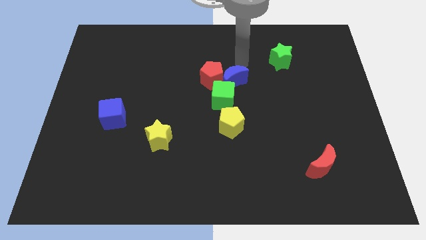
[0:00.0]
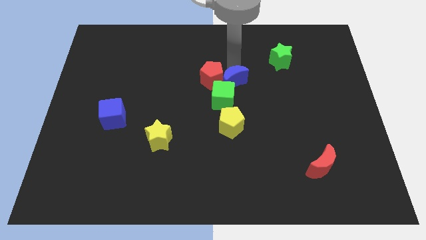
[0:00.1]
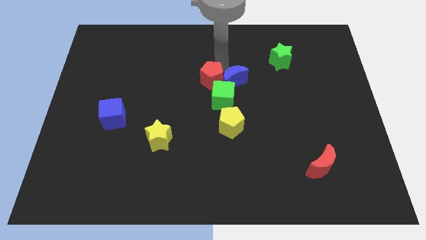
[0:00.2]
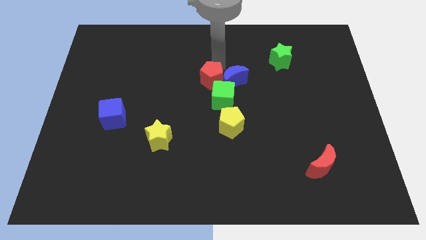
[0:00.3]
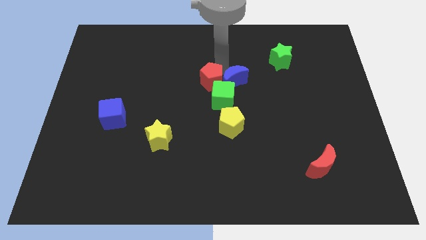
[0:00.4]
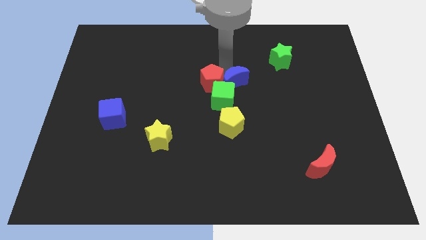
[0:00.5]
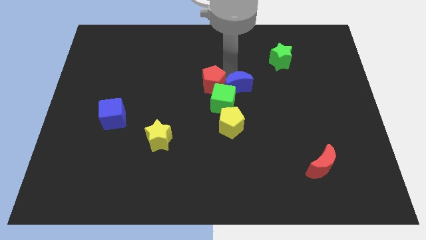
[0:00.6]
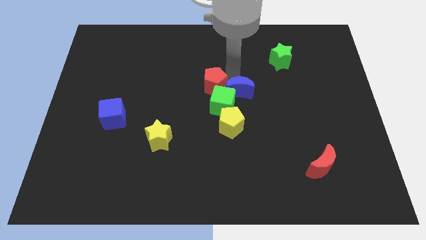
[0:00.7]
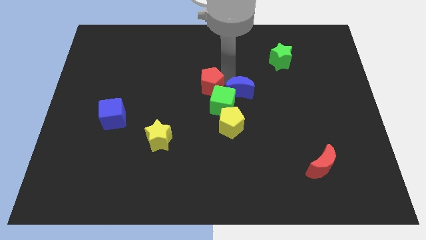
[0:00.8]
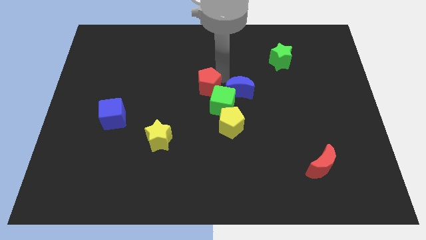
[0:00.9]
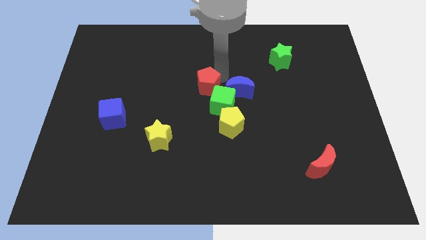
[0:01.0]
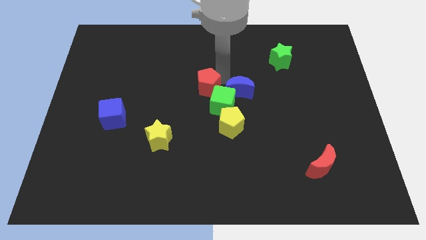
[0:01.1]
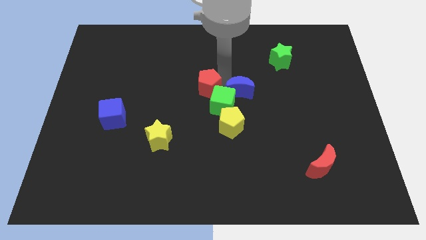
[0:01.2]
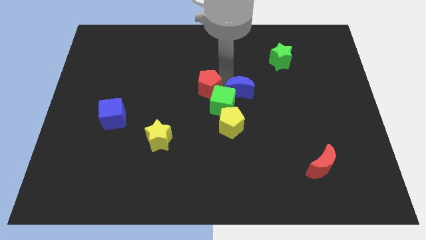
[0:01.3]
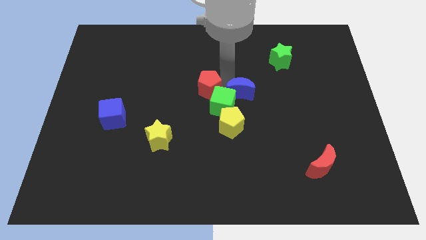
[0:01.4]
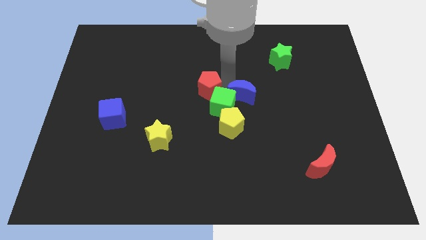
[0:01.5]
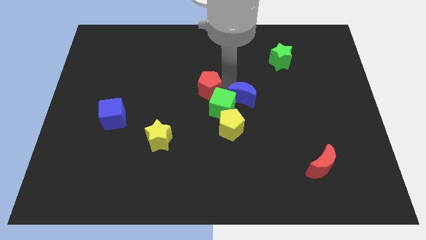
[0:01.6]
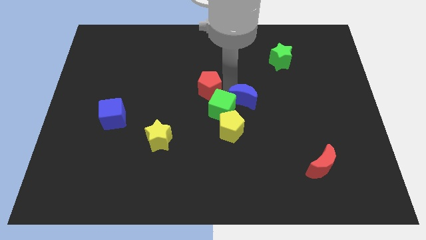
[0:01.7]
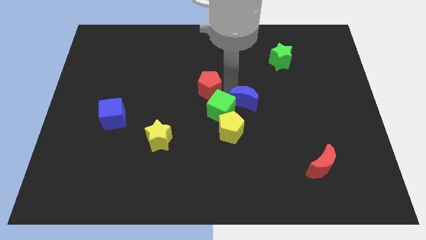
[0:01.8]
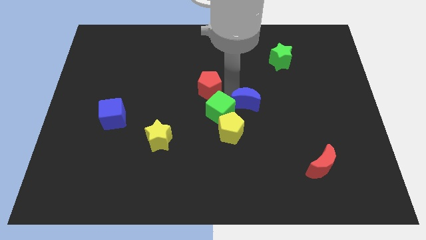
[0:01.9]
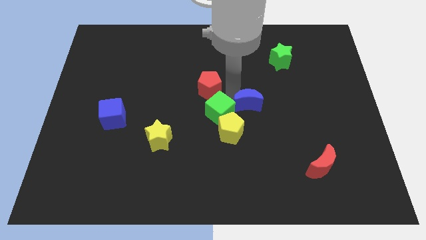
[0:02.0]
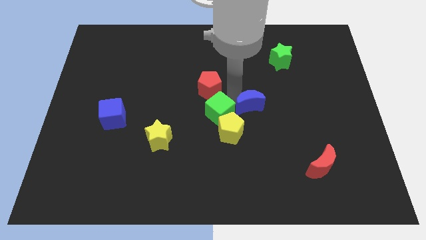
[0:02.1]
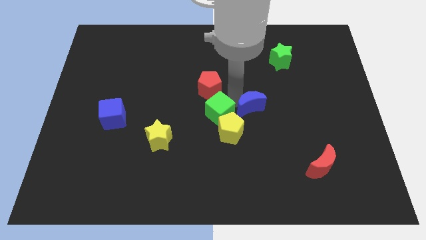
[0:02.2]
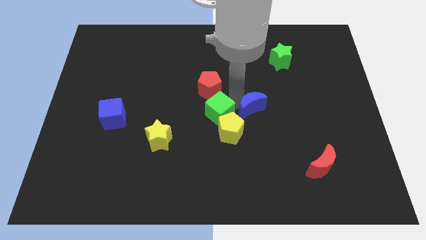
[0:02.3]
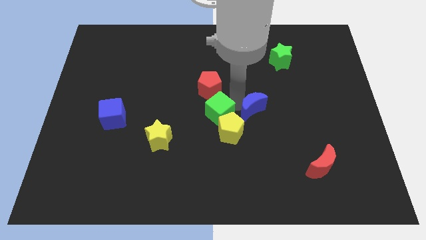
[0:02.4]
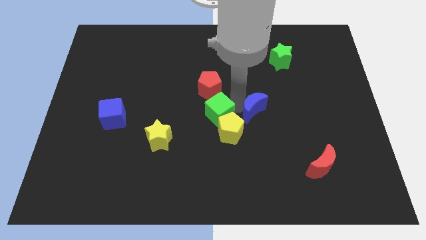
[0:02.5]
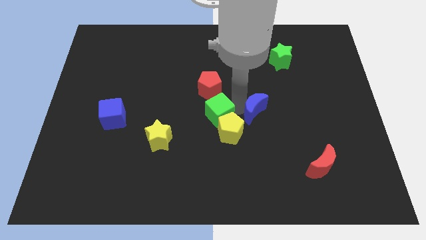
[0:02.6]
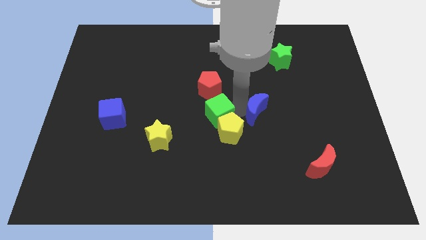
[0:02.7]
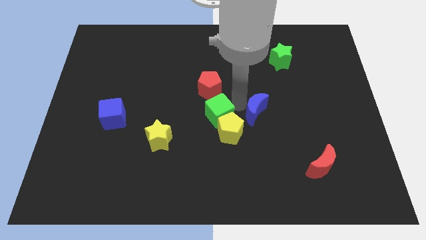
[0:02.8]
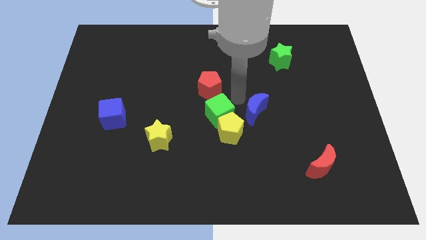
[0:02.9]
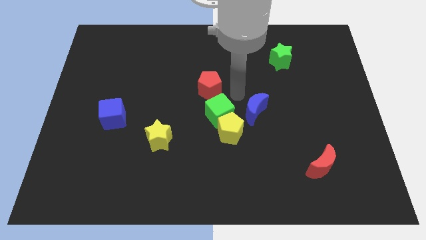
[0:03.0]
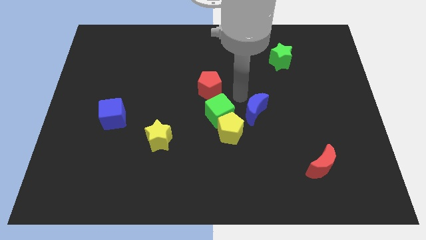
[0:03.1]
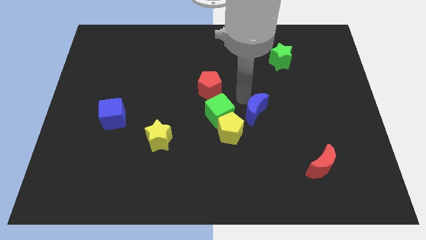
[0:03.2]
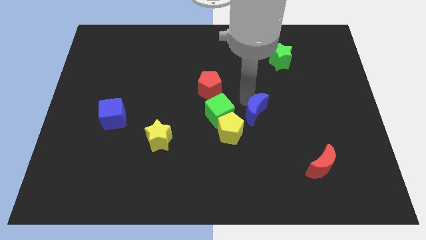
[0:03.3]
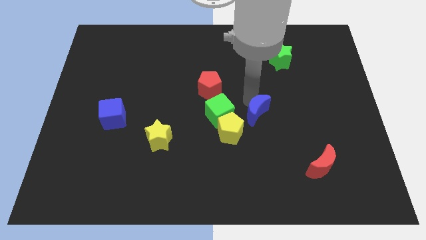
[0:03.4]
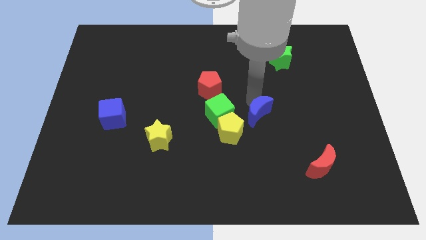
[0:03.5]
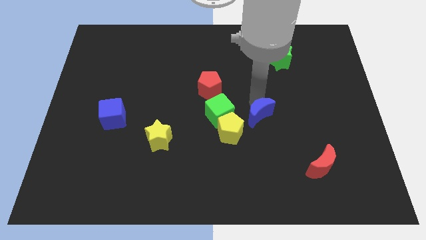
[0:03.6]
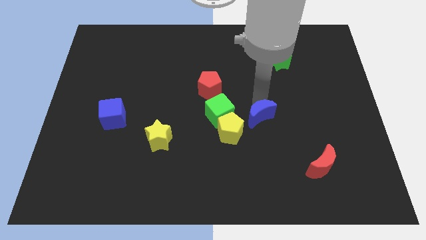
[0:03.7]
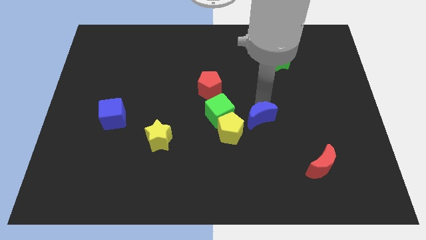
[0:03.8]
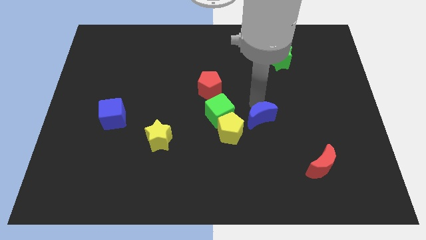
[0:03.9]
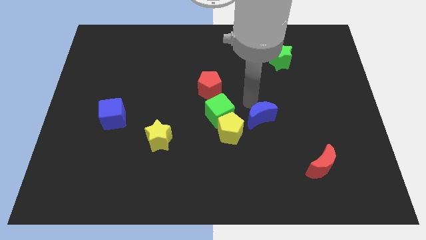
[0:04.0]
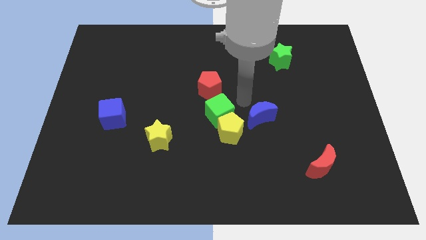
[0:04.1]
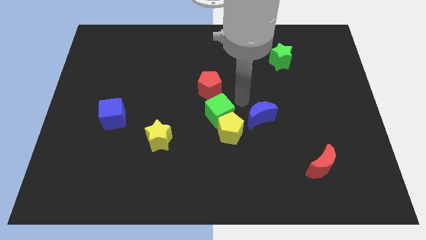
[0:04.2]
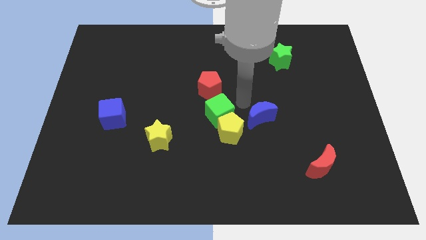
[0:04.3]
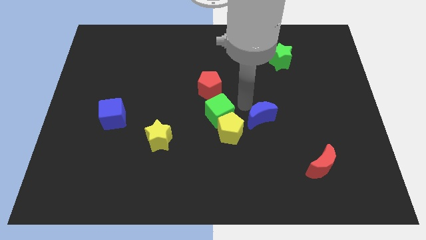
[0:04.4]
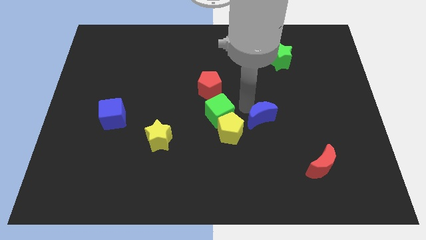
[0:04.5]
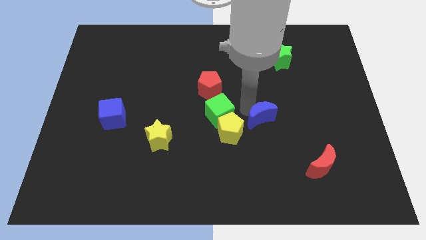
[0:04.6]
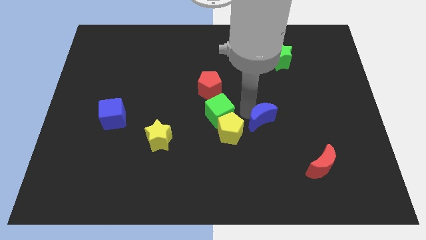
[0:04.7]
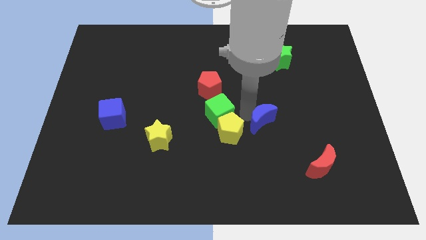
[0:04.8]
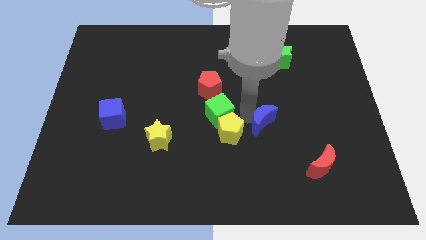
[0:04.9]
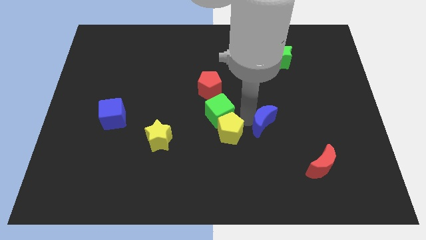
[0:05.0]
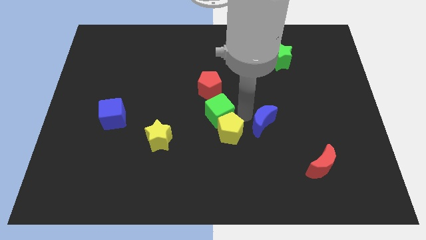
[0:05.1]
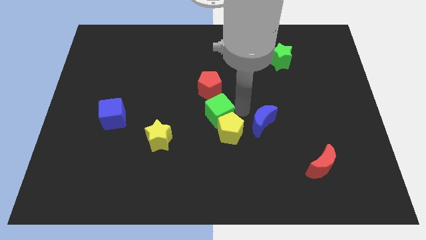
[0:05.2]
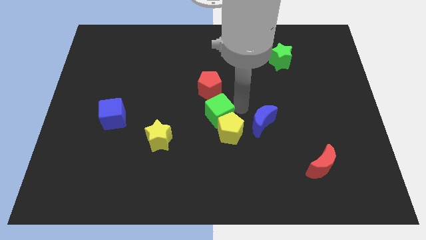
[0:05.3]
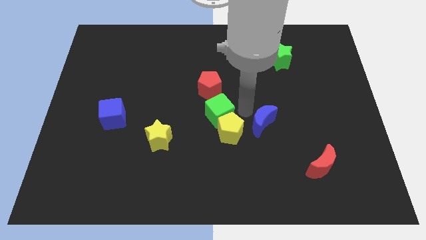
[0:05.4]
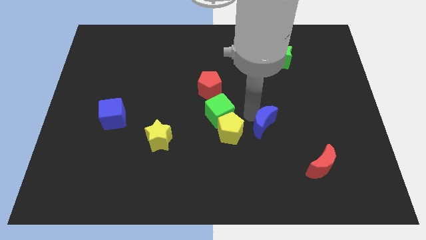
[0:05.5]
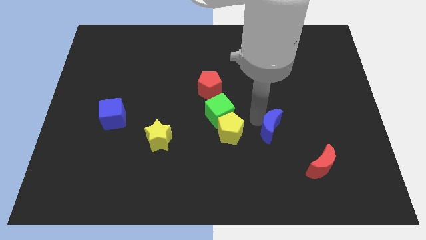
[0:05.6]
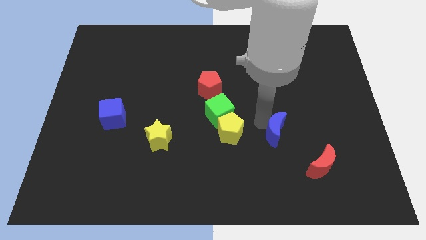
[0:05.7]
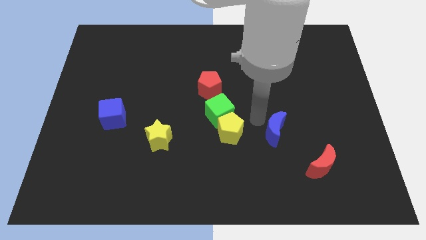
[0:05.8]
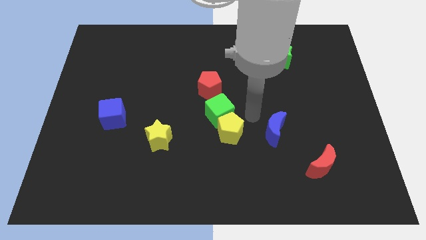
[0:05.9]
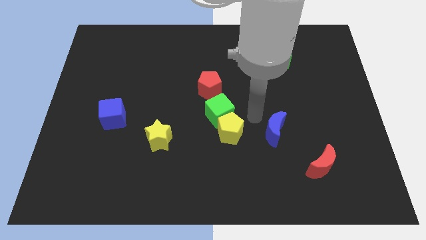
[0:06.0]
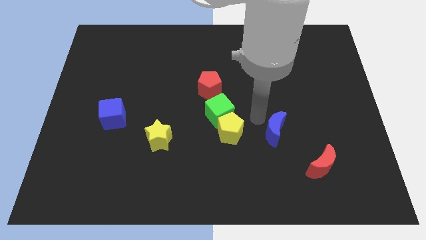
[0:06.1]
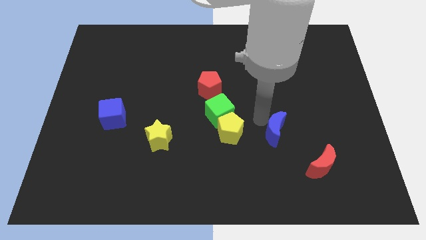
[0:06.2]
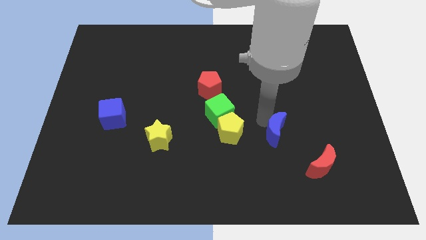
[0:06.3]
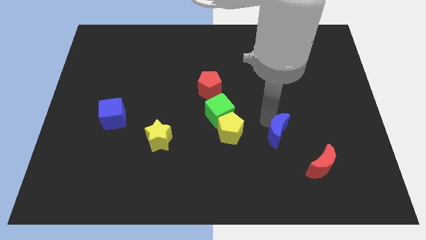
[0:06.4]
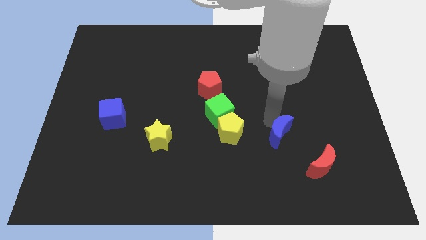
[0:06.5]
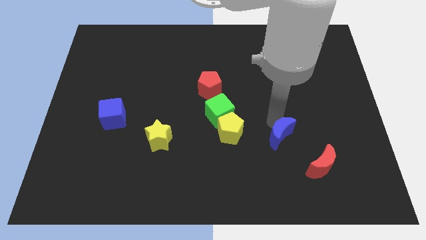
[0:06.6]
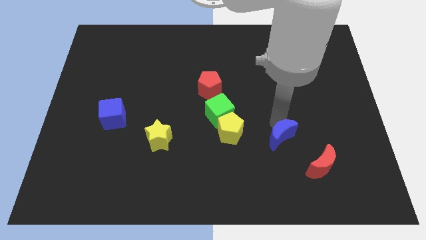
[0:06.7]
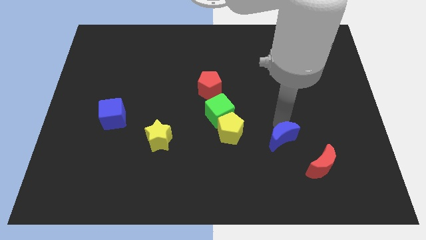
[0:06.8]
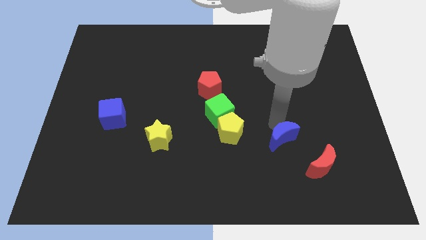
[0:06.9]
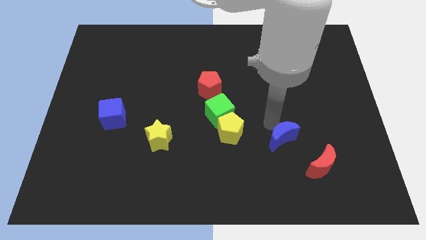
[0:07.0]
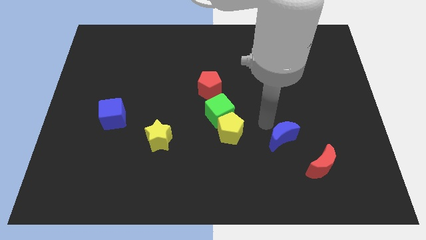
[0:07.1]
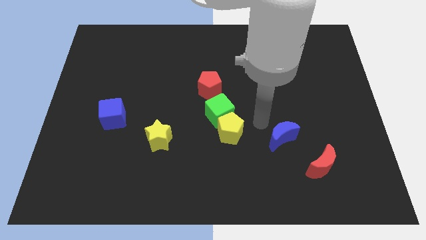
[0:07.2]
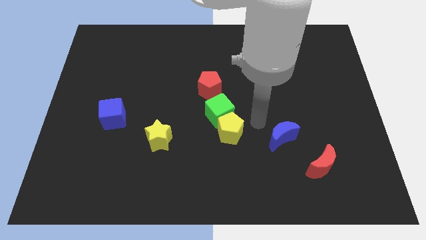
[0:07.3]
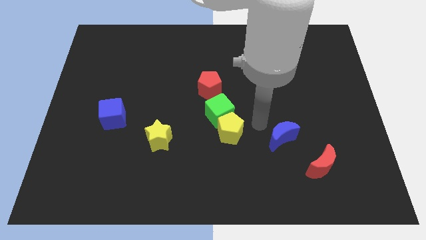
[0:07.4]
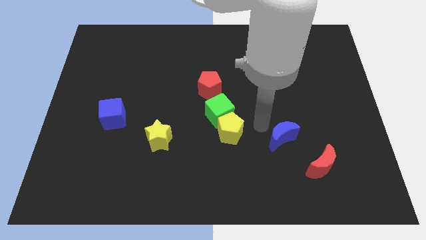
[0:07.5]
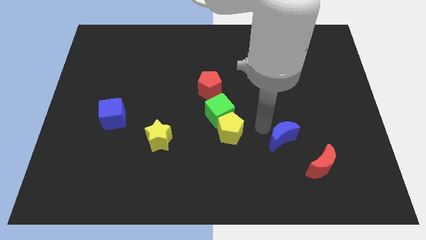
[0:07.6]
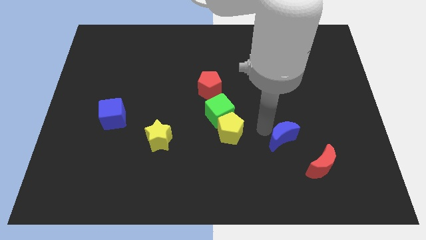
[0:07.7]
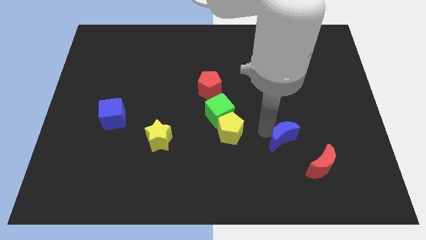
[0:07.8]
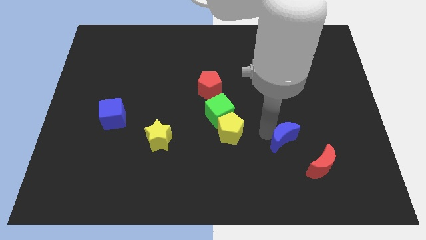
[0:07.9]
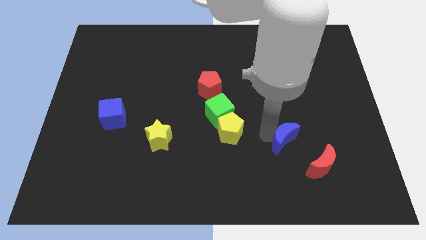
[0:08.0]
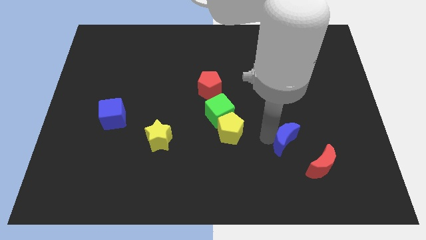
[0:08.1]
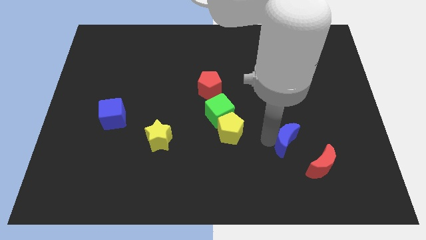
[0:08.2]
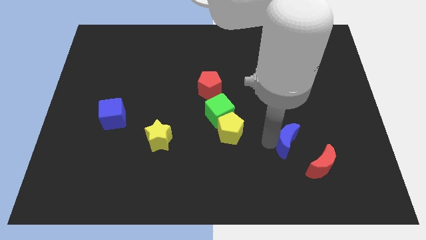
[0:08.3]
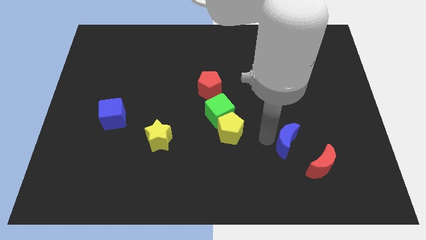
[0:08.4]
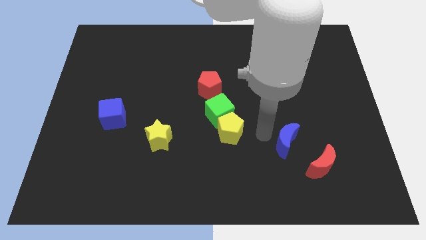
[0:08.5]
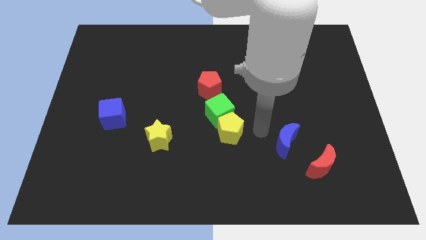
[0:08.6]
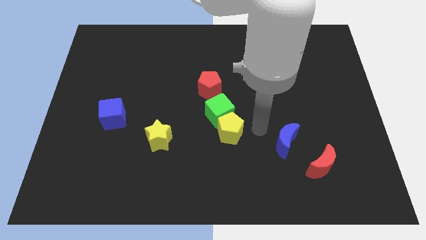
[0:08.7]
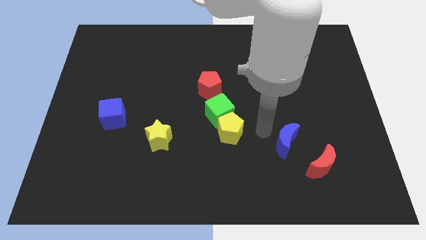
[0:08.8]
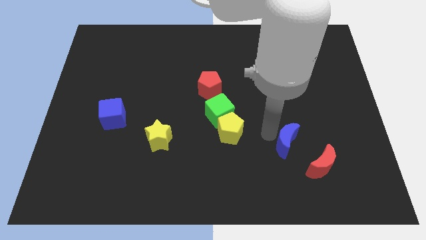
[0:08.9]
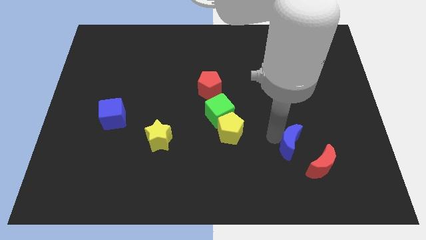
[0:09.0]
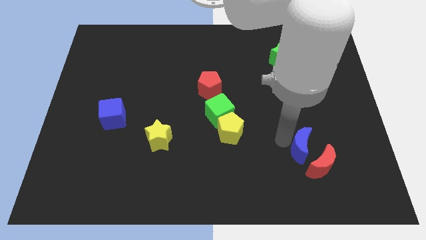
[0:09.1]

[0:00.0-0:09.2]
put the blue moon to the red moon
